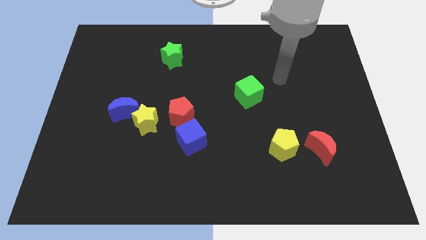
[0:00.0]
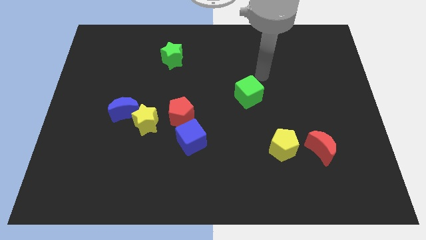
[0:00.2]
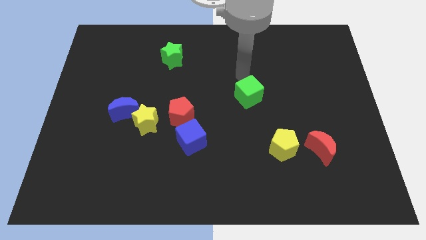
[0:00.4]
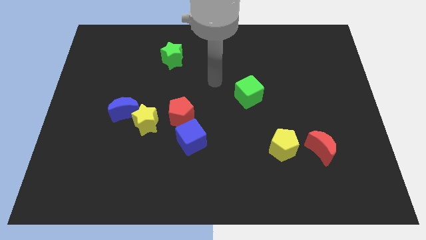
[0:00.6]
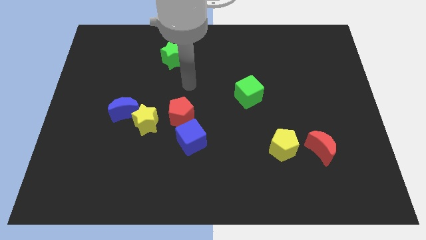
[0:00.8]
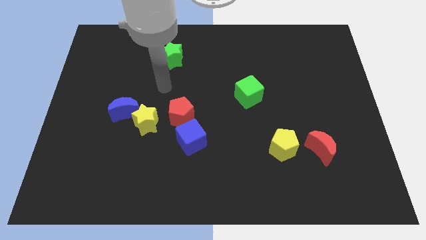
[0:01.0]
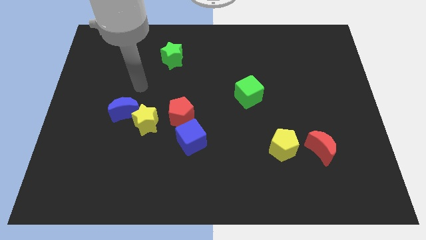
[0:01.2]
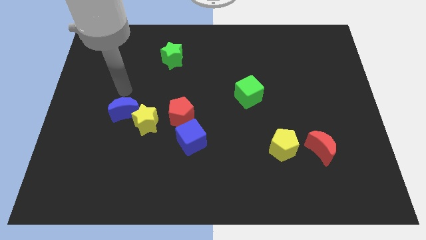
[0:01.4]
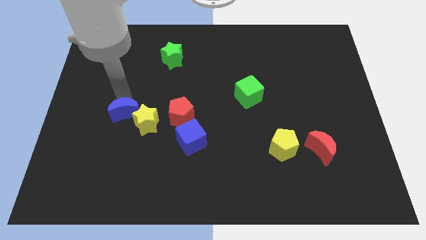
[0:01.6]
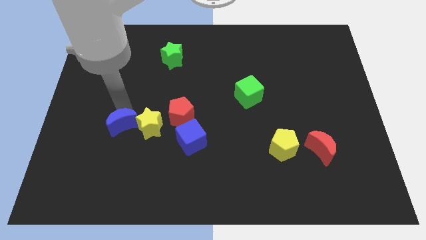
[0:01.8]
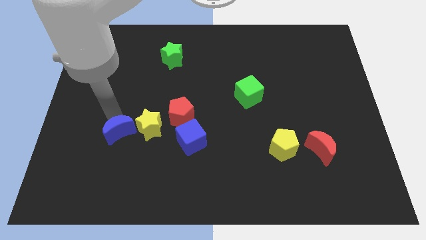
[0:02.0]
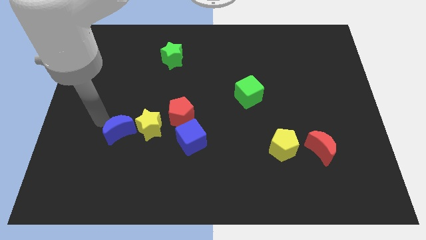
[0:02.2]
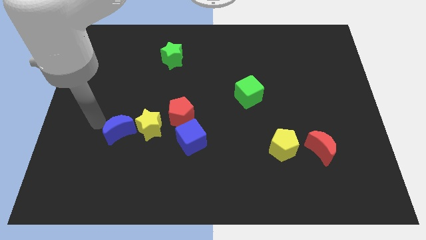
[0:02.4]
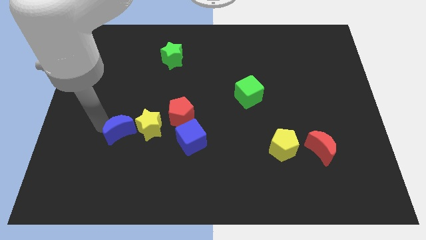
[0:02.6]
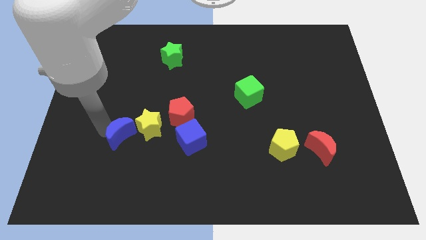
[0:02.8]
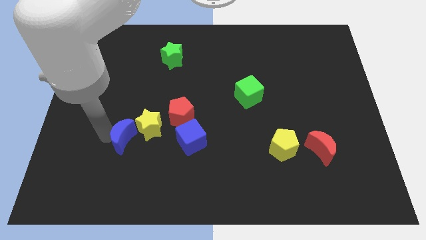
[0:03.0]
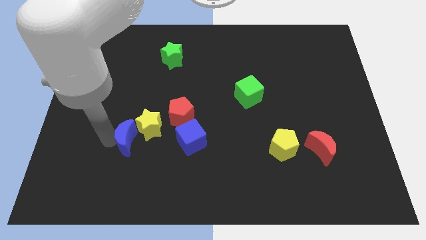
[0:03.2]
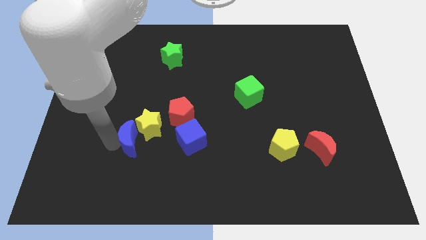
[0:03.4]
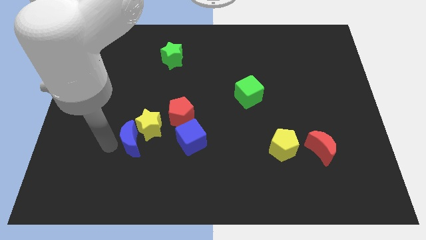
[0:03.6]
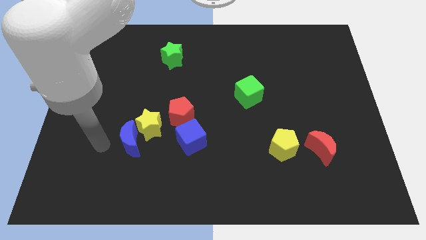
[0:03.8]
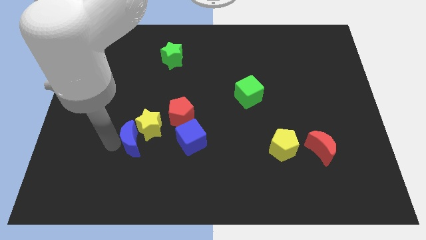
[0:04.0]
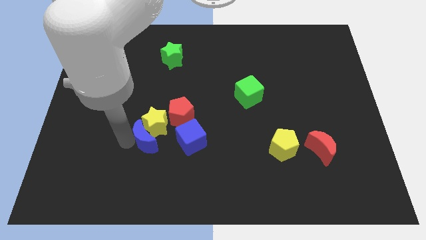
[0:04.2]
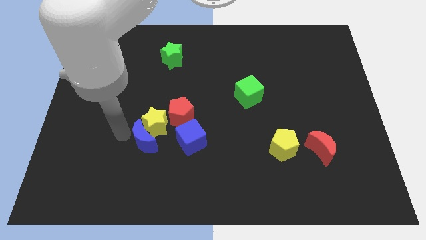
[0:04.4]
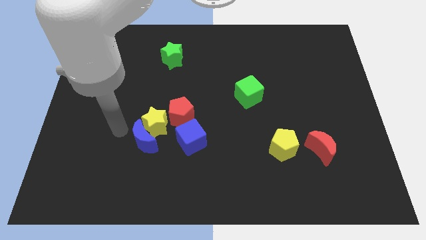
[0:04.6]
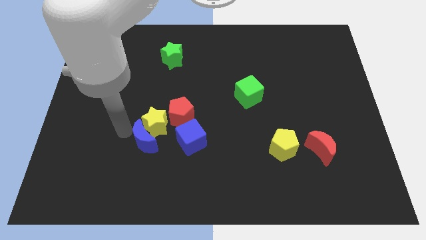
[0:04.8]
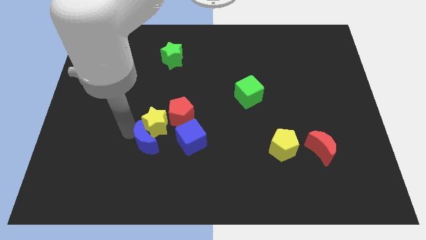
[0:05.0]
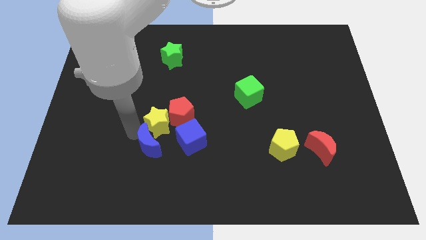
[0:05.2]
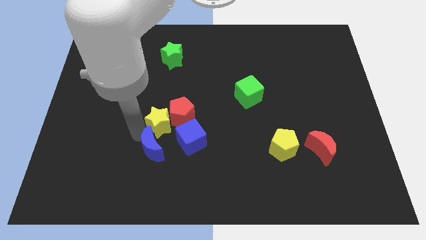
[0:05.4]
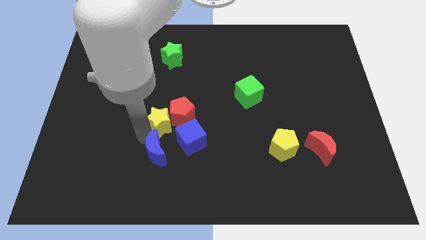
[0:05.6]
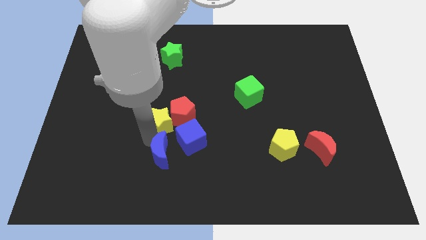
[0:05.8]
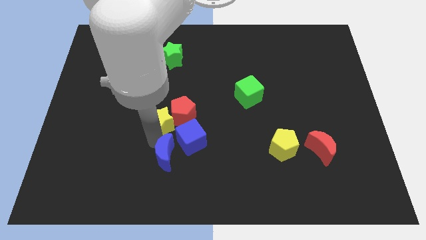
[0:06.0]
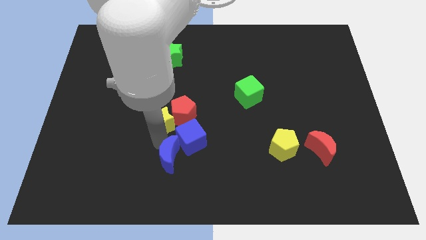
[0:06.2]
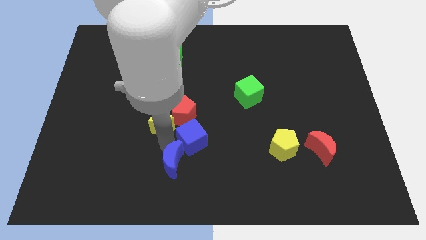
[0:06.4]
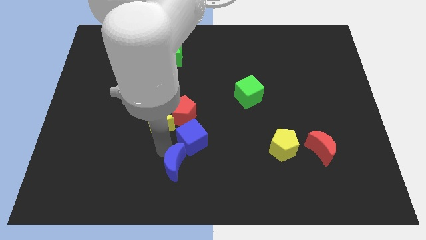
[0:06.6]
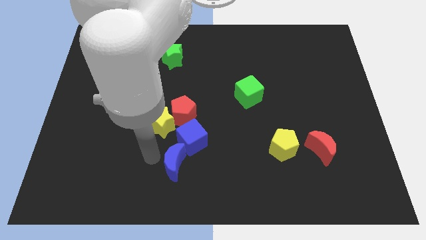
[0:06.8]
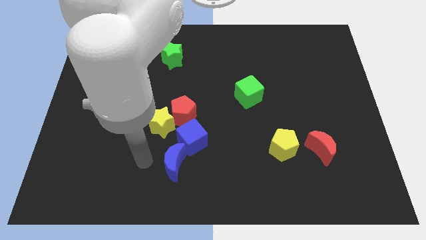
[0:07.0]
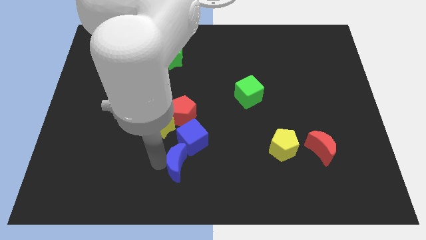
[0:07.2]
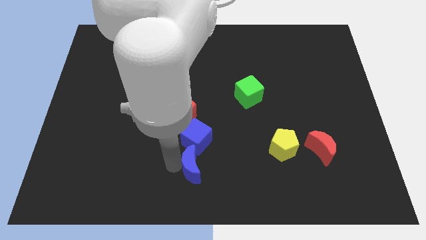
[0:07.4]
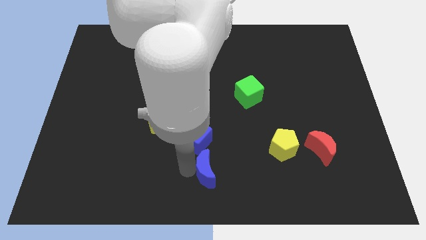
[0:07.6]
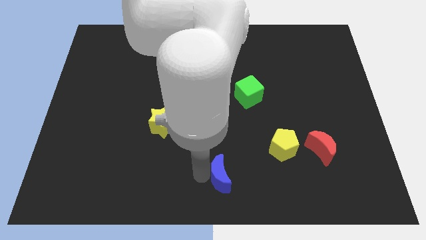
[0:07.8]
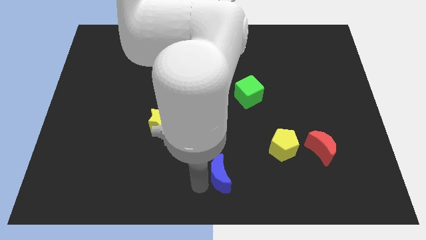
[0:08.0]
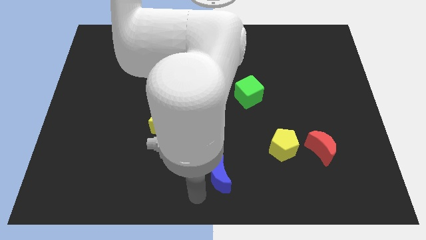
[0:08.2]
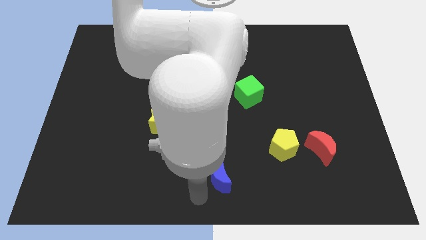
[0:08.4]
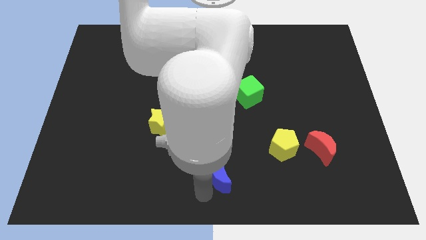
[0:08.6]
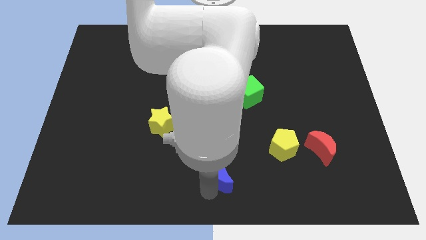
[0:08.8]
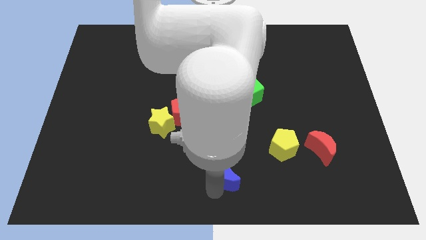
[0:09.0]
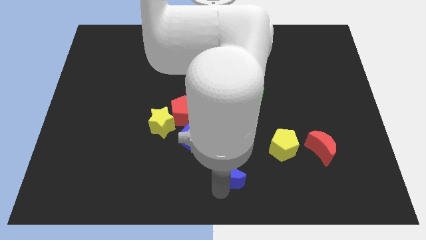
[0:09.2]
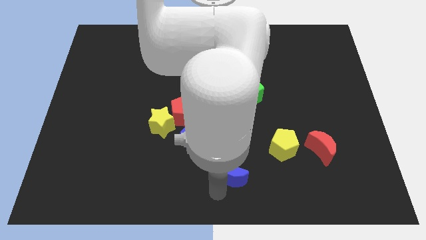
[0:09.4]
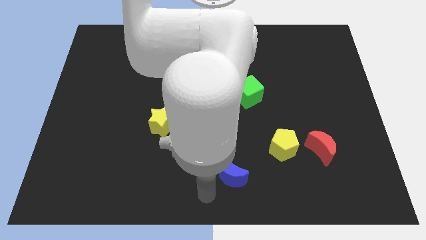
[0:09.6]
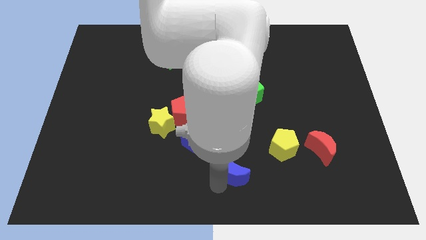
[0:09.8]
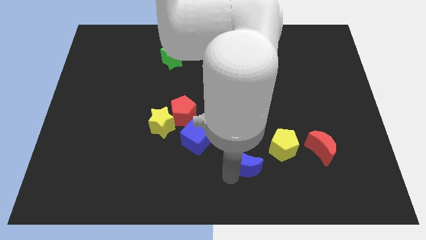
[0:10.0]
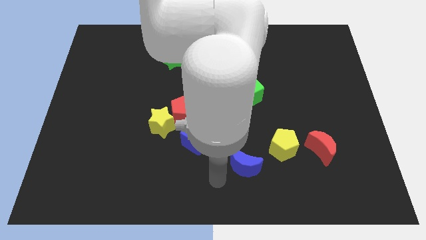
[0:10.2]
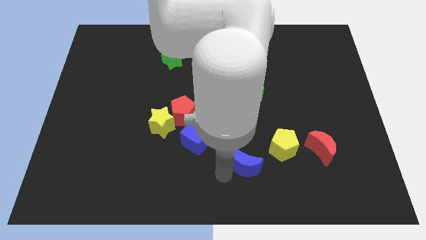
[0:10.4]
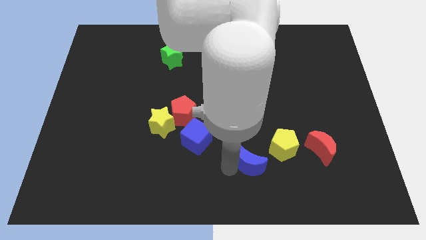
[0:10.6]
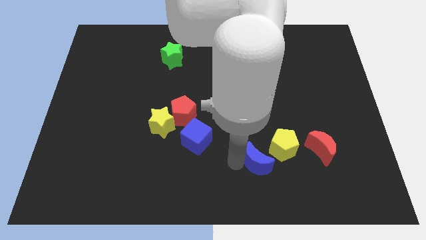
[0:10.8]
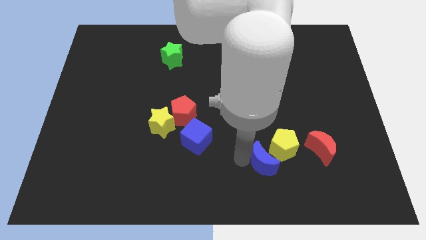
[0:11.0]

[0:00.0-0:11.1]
push the blue moon close to the yellow pentagon

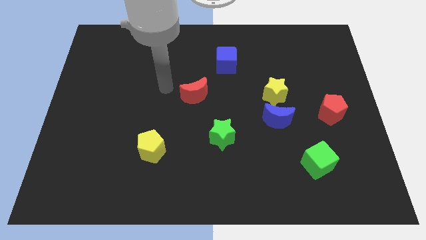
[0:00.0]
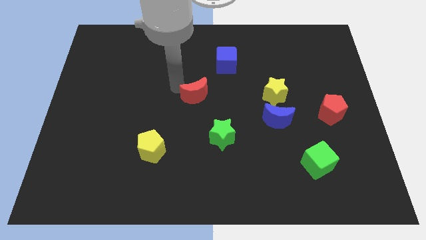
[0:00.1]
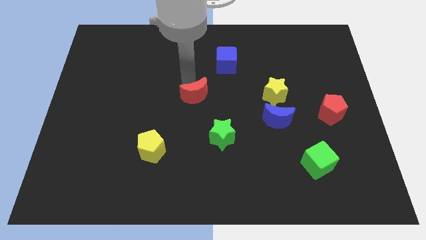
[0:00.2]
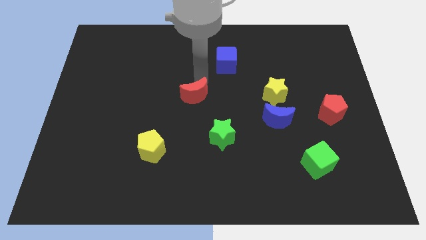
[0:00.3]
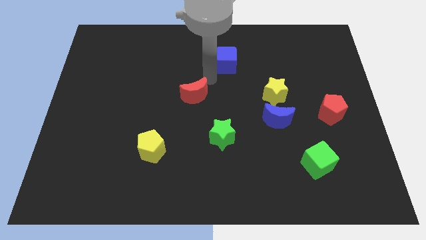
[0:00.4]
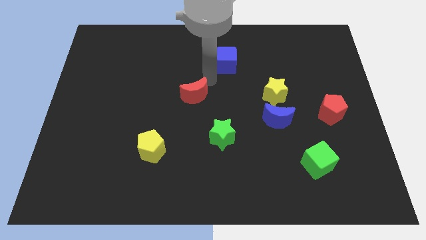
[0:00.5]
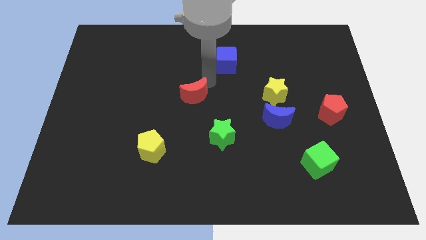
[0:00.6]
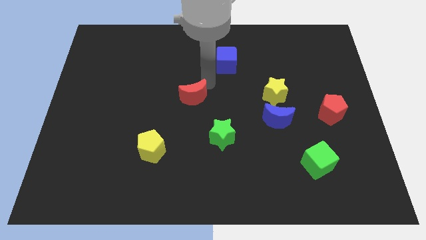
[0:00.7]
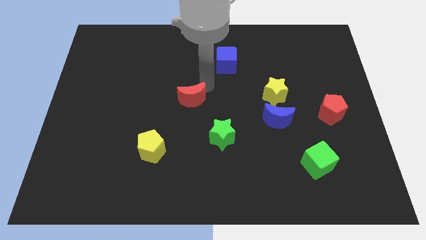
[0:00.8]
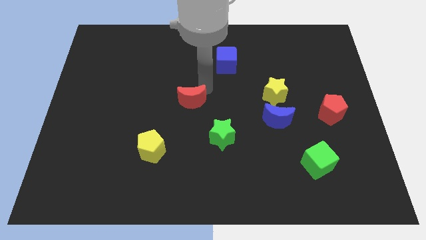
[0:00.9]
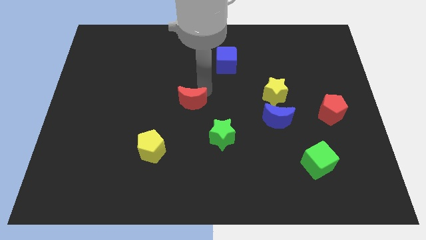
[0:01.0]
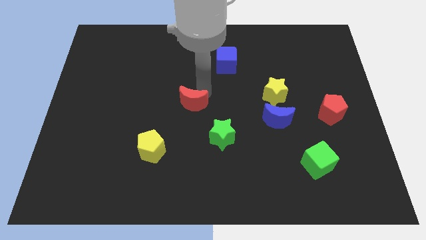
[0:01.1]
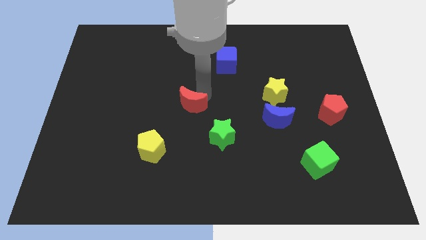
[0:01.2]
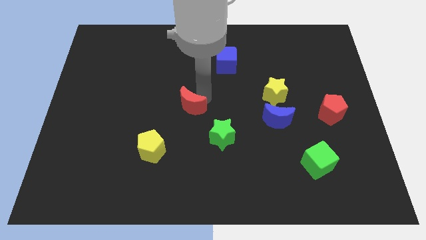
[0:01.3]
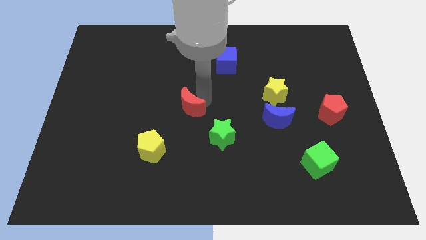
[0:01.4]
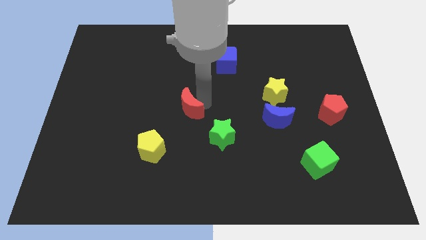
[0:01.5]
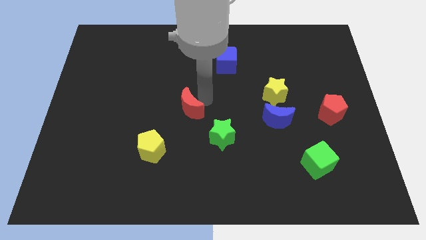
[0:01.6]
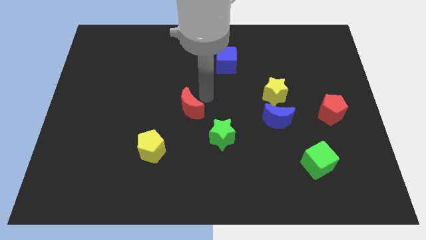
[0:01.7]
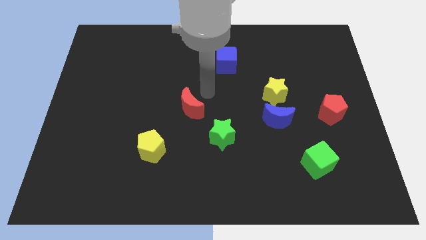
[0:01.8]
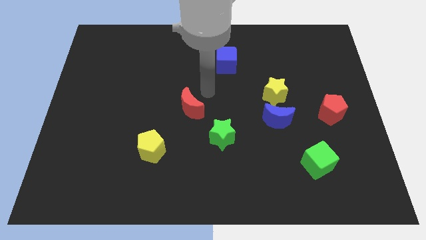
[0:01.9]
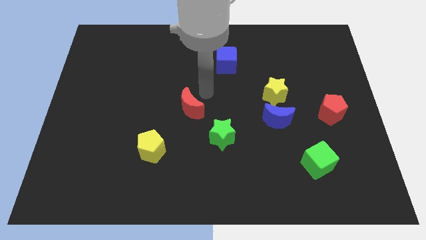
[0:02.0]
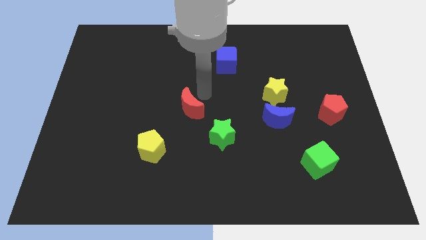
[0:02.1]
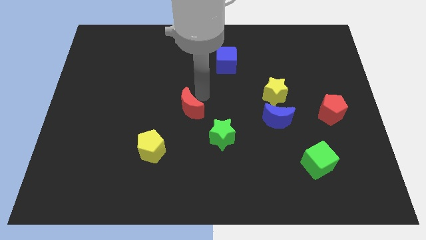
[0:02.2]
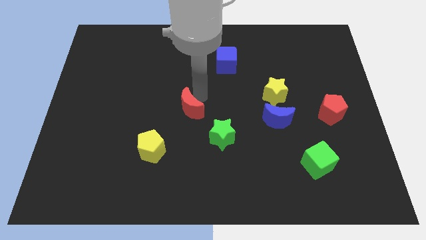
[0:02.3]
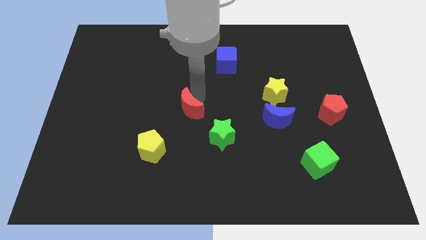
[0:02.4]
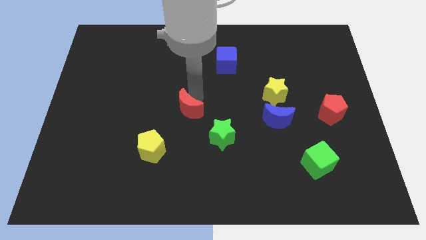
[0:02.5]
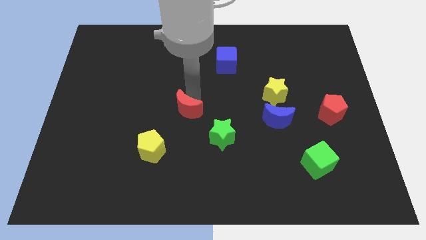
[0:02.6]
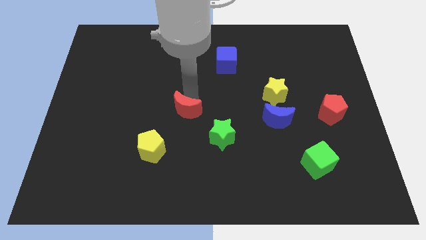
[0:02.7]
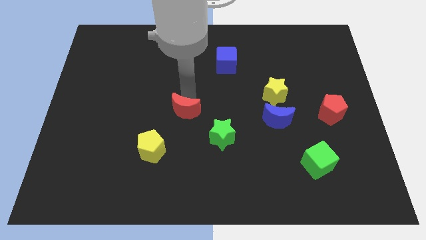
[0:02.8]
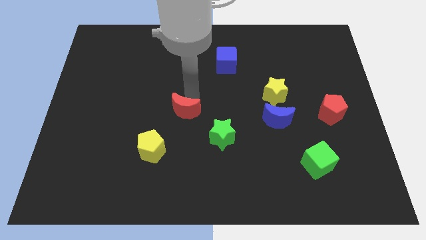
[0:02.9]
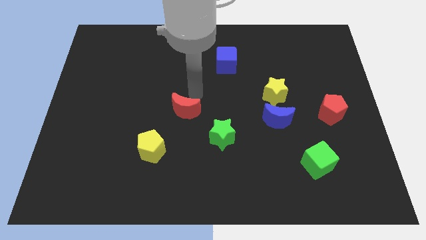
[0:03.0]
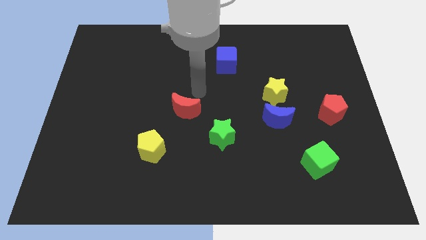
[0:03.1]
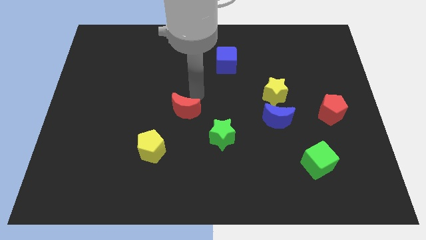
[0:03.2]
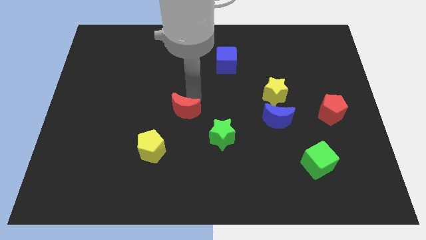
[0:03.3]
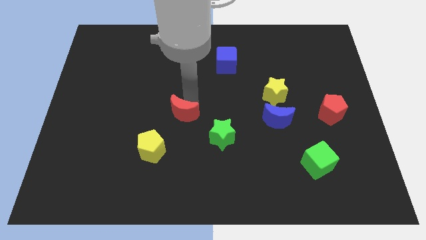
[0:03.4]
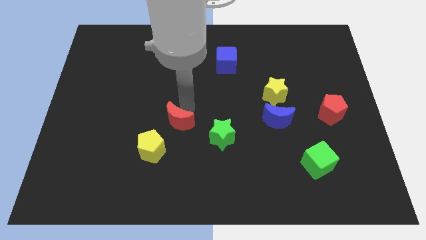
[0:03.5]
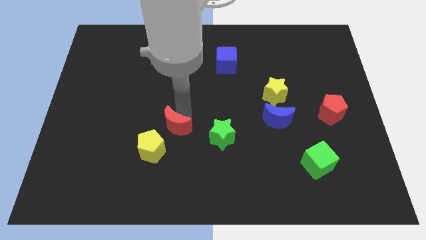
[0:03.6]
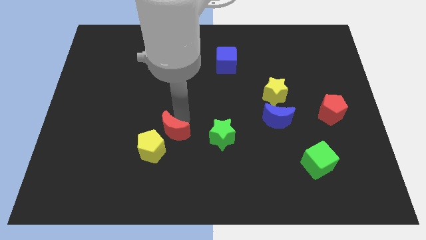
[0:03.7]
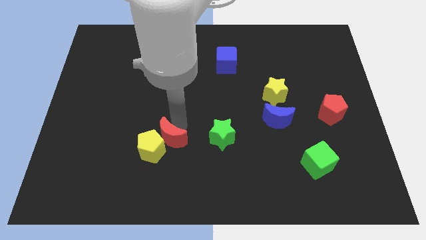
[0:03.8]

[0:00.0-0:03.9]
move the red moon next to the yellow pentagon
